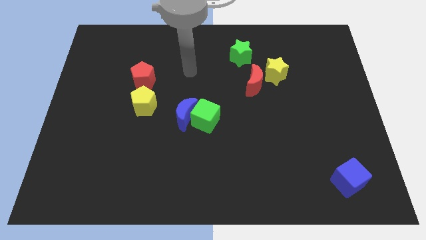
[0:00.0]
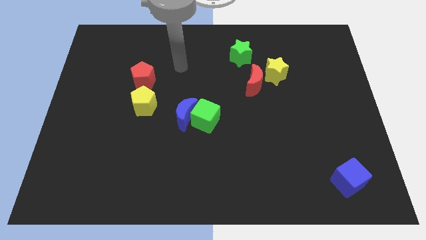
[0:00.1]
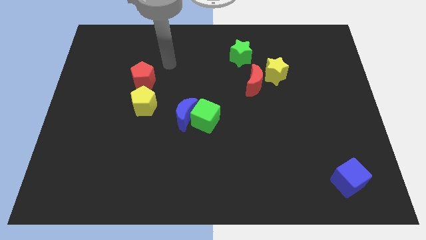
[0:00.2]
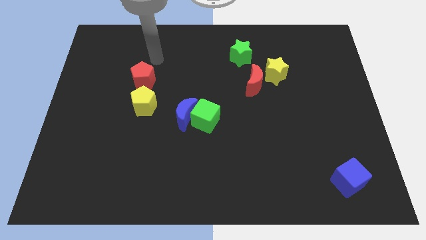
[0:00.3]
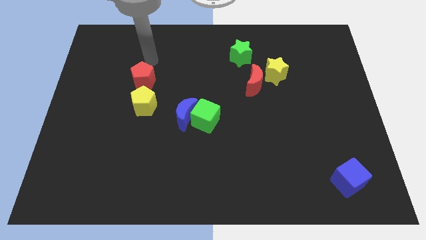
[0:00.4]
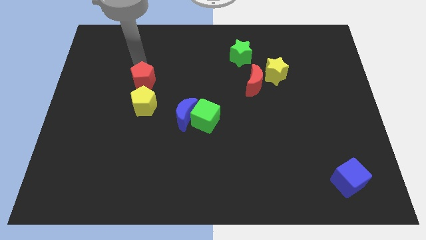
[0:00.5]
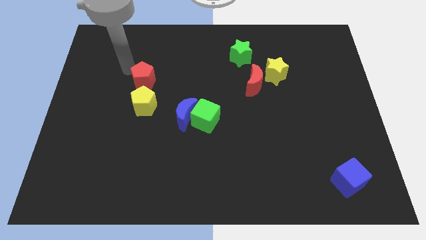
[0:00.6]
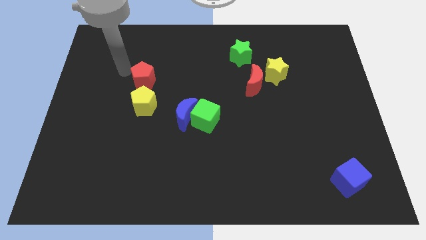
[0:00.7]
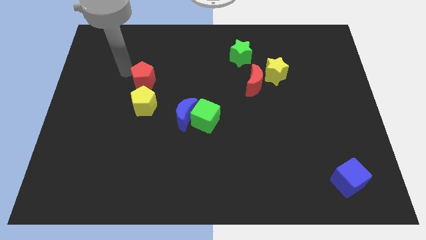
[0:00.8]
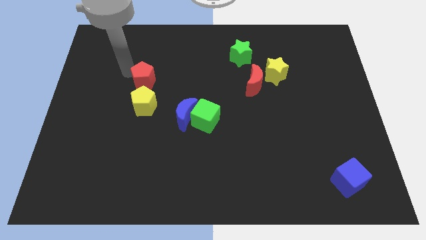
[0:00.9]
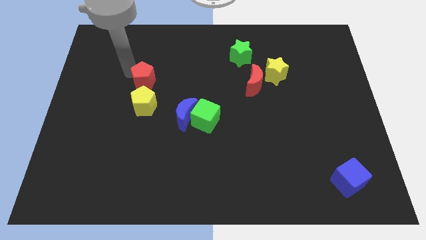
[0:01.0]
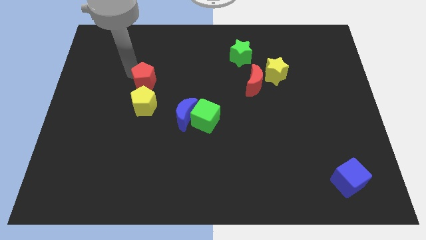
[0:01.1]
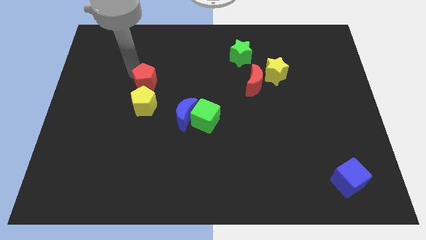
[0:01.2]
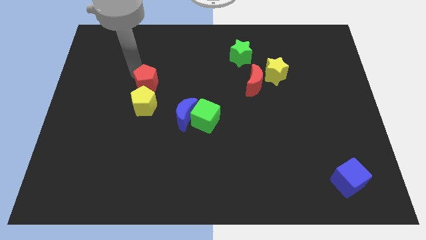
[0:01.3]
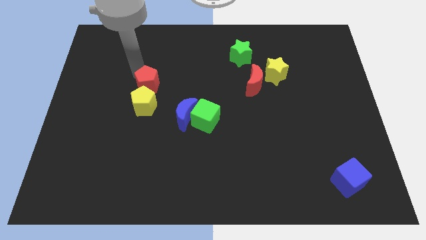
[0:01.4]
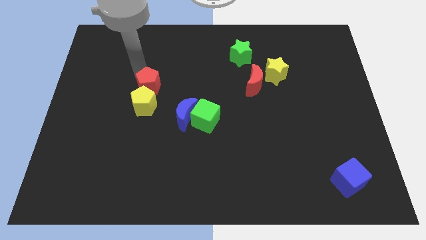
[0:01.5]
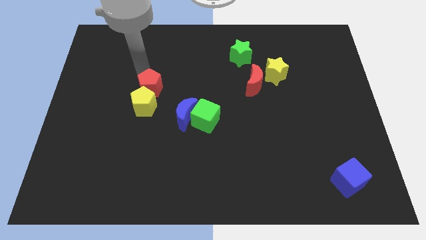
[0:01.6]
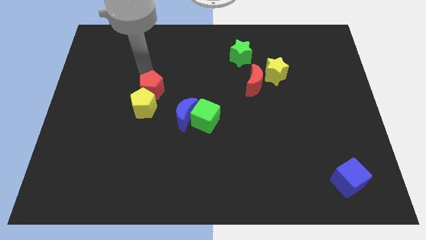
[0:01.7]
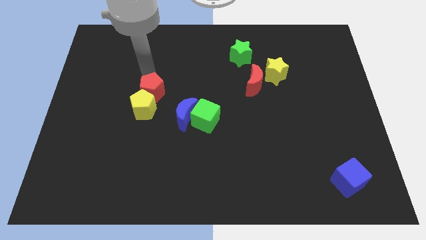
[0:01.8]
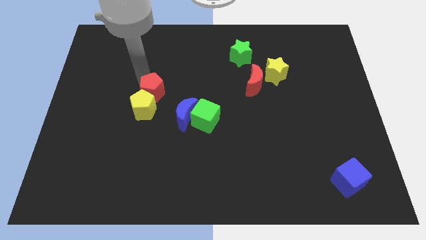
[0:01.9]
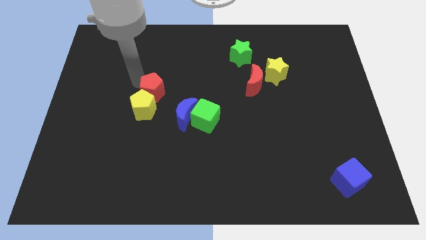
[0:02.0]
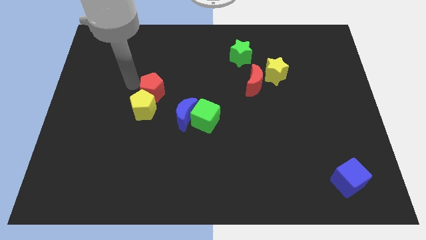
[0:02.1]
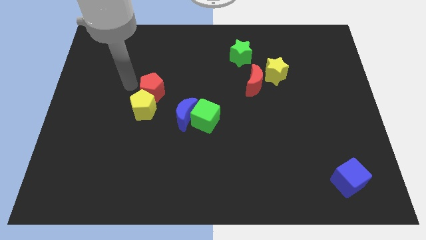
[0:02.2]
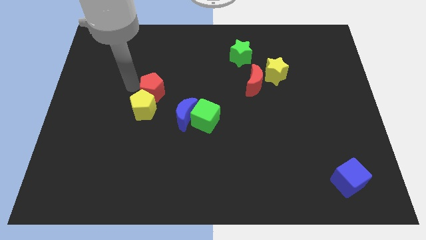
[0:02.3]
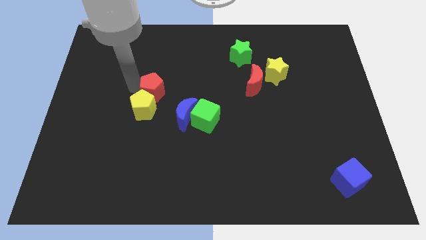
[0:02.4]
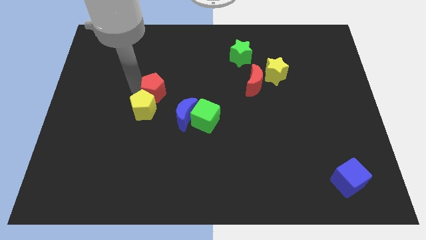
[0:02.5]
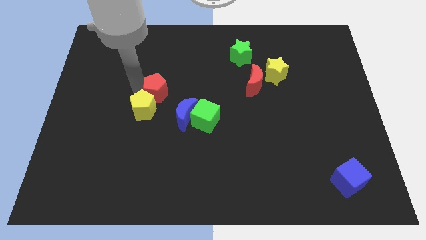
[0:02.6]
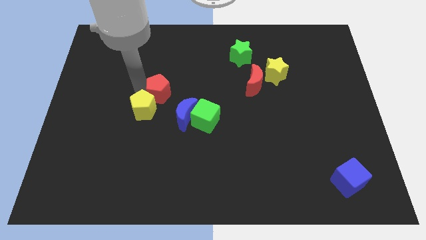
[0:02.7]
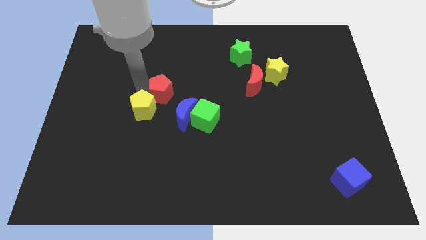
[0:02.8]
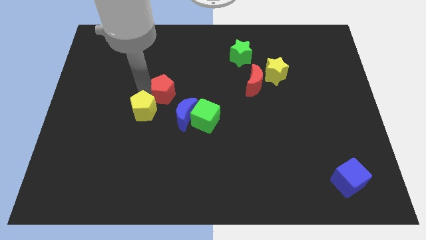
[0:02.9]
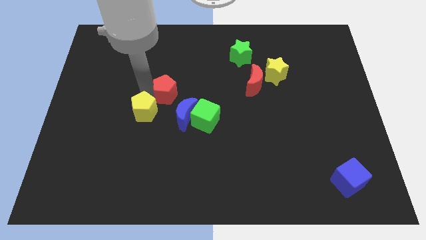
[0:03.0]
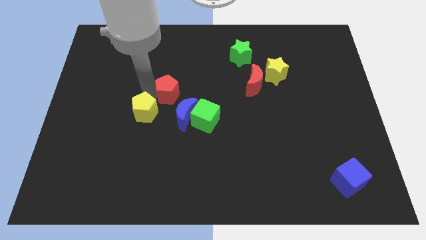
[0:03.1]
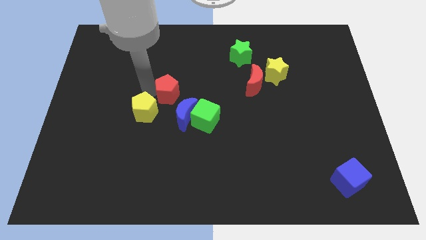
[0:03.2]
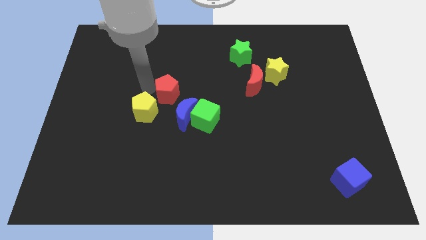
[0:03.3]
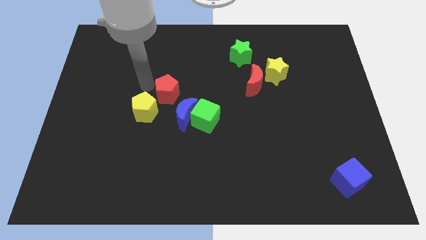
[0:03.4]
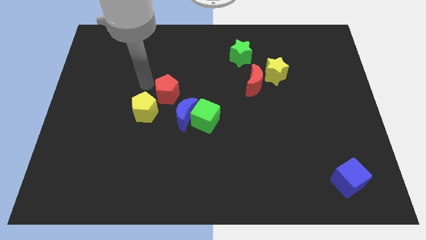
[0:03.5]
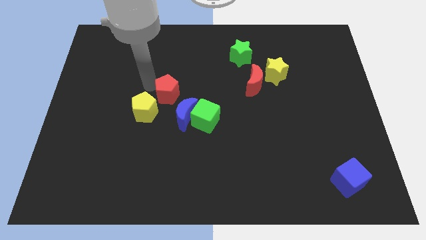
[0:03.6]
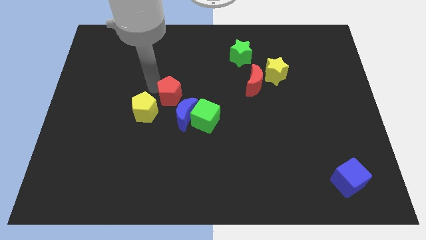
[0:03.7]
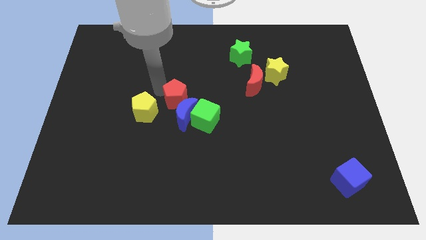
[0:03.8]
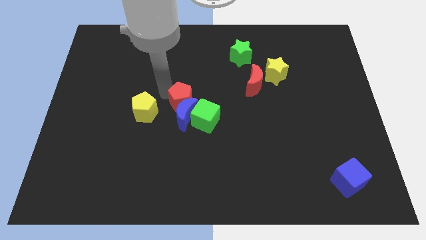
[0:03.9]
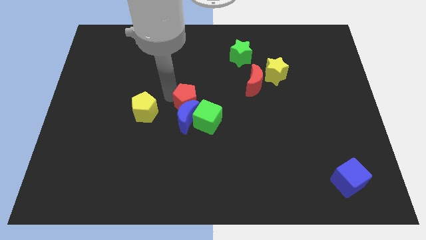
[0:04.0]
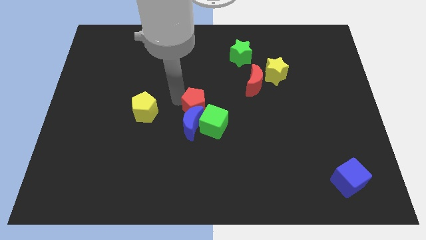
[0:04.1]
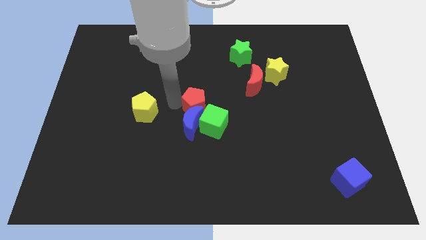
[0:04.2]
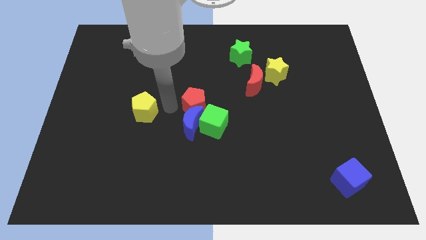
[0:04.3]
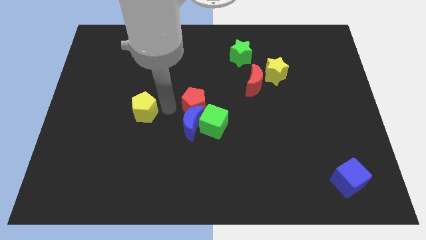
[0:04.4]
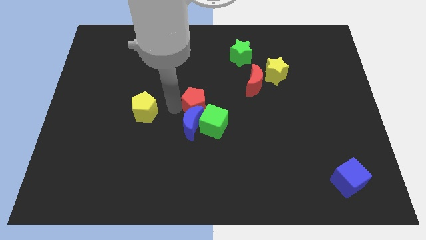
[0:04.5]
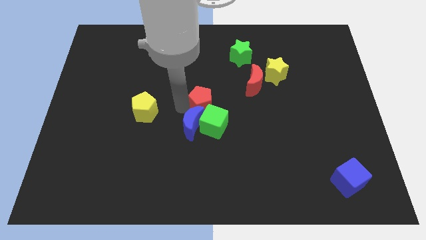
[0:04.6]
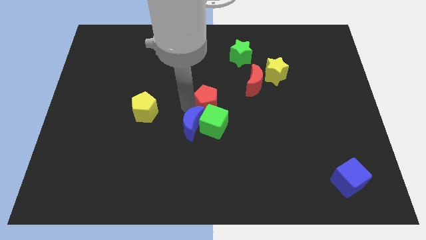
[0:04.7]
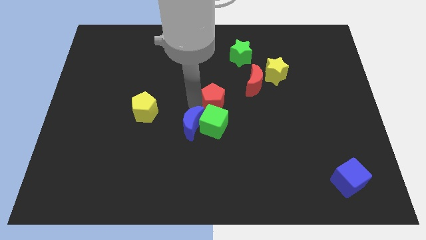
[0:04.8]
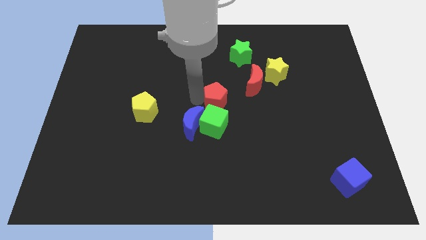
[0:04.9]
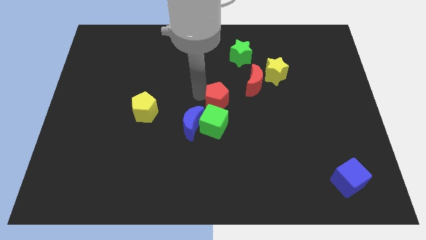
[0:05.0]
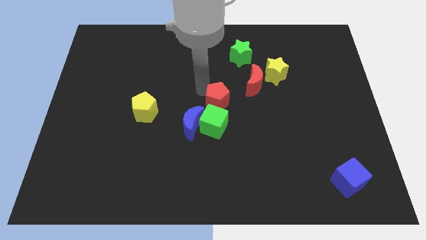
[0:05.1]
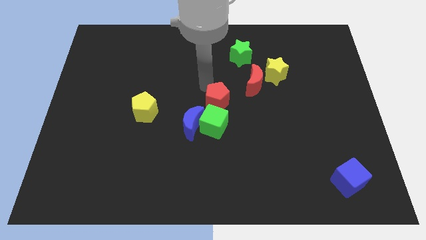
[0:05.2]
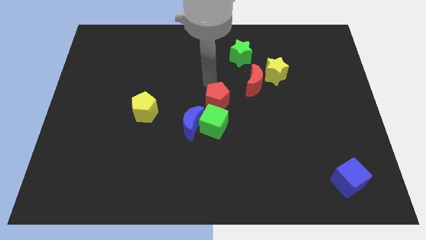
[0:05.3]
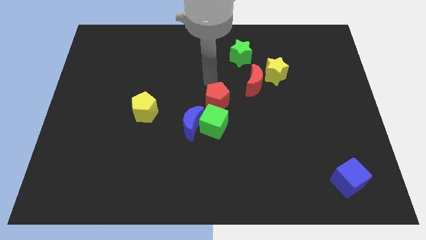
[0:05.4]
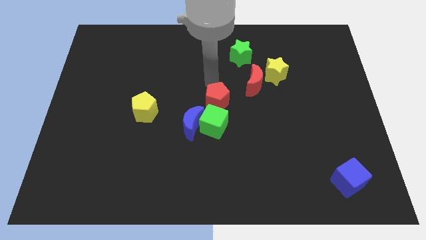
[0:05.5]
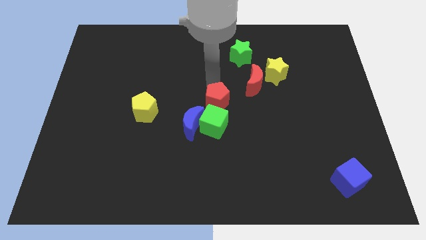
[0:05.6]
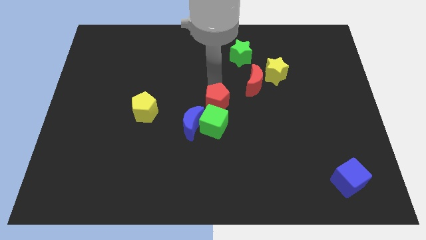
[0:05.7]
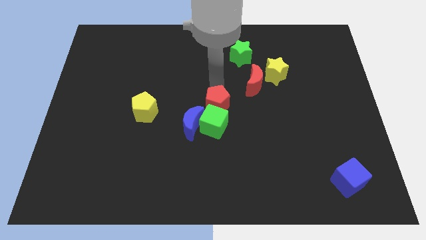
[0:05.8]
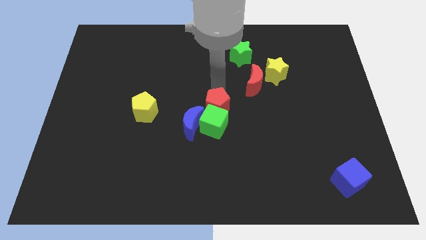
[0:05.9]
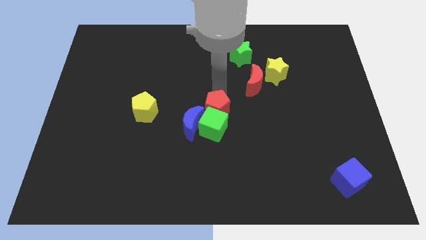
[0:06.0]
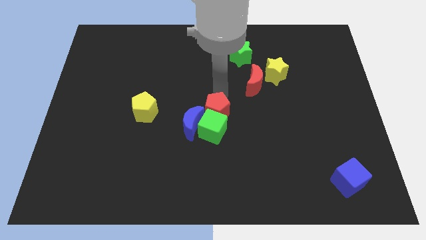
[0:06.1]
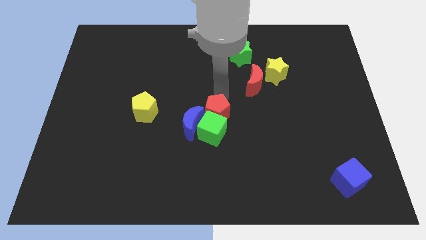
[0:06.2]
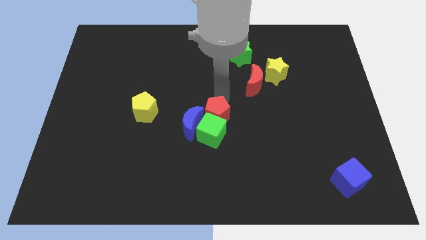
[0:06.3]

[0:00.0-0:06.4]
move the red pentagon downwards and to the right

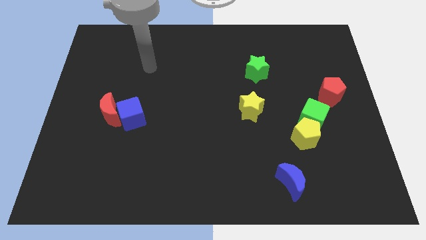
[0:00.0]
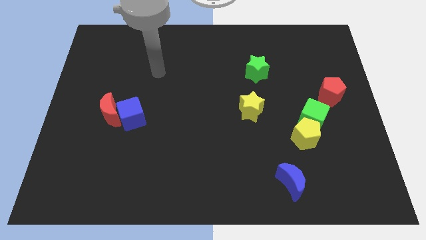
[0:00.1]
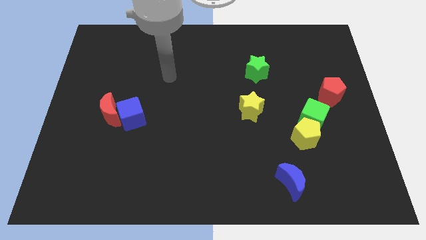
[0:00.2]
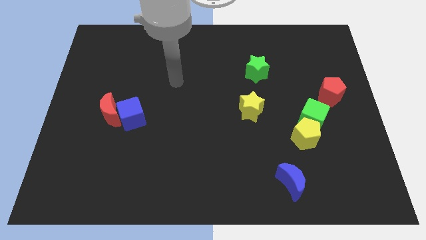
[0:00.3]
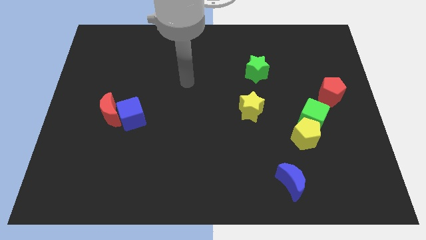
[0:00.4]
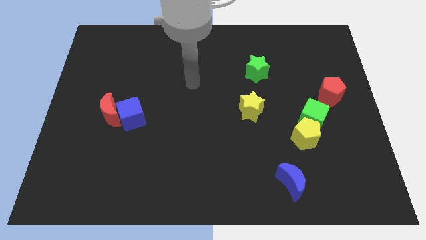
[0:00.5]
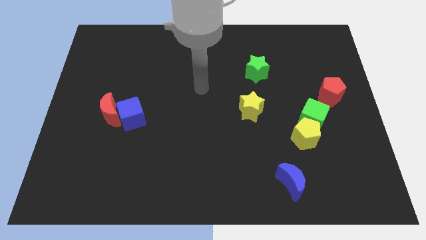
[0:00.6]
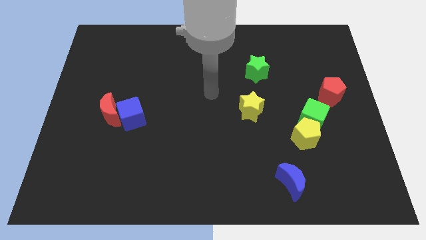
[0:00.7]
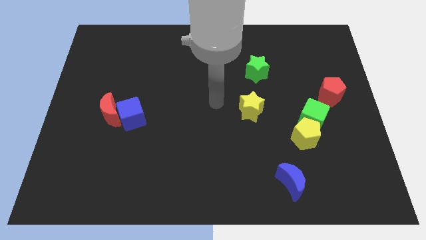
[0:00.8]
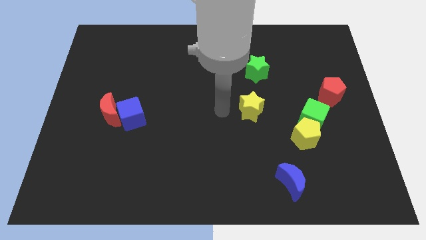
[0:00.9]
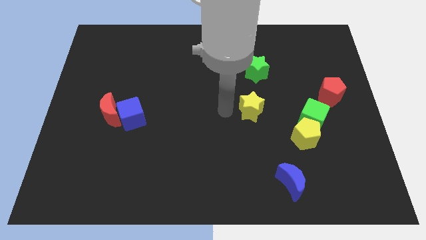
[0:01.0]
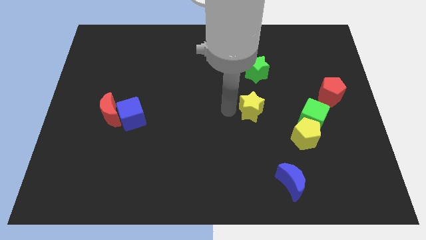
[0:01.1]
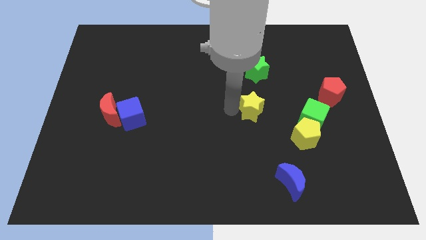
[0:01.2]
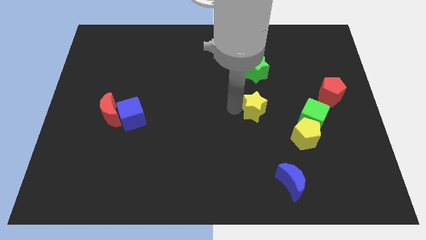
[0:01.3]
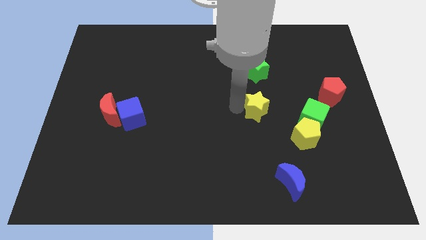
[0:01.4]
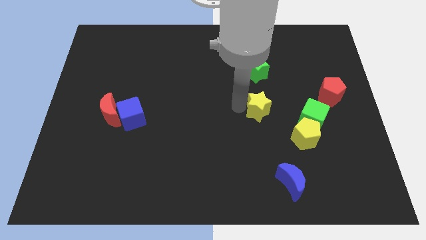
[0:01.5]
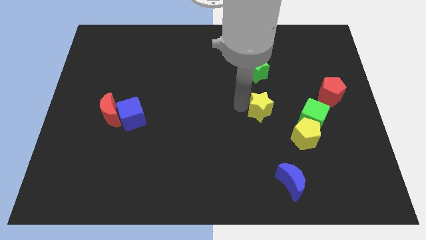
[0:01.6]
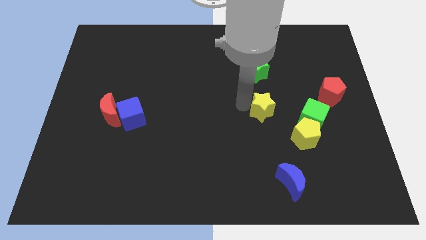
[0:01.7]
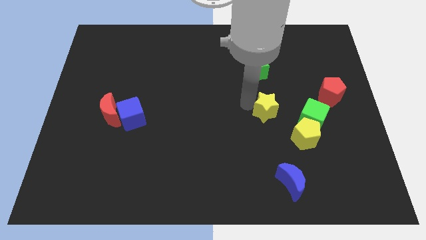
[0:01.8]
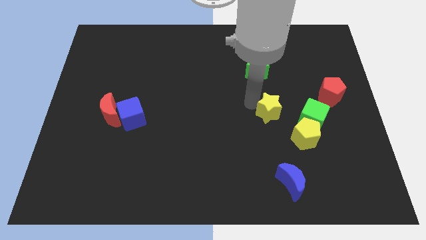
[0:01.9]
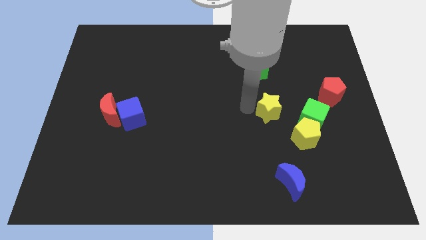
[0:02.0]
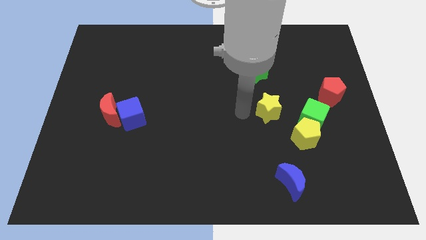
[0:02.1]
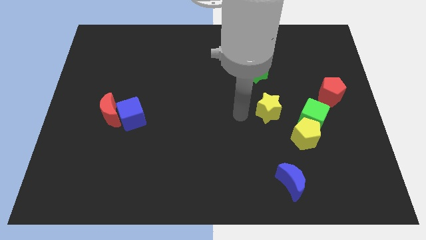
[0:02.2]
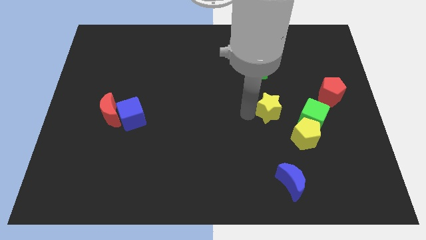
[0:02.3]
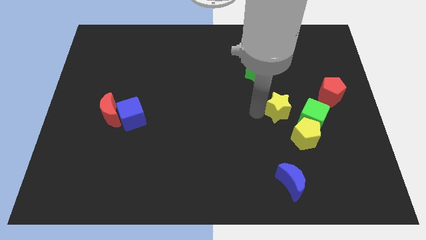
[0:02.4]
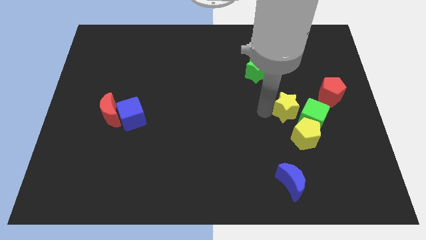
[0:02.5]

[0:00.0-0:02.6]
slightly slide the yellow star to the right
